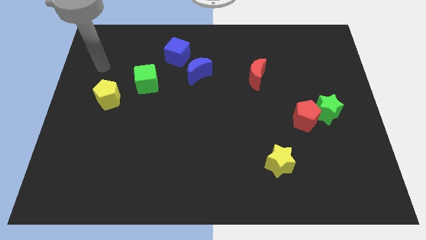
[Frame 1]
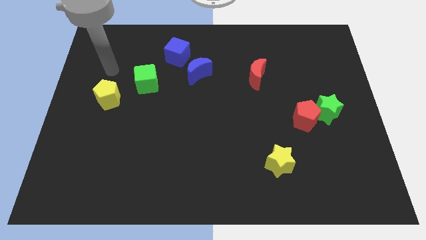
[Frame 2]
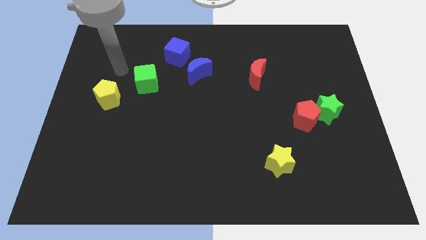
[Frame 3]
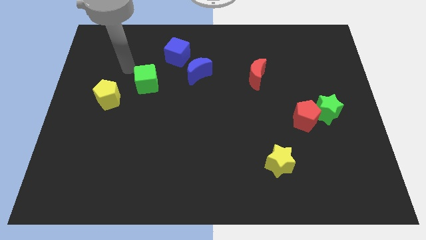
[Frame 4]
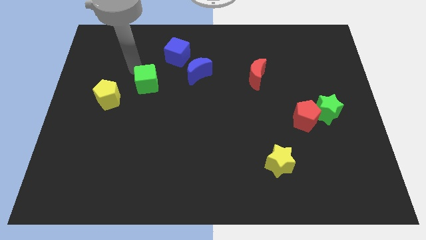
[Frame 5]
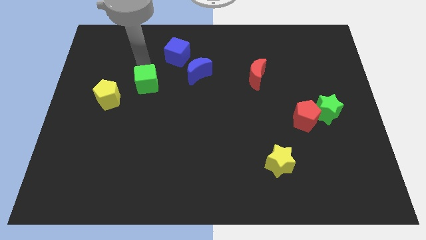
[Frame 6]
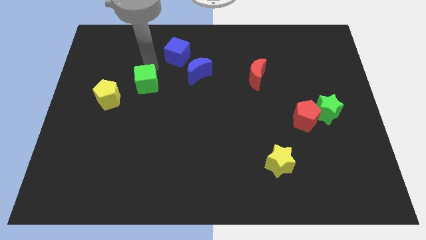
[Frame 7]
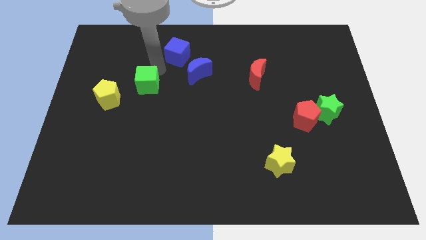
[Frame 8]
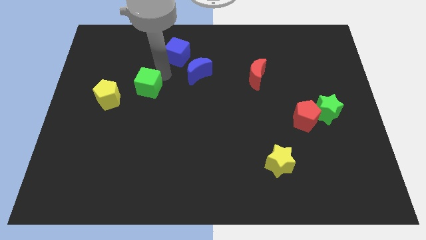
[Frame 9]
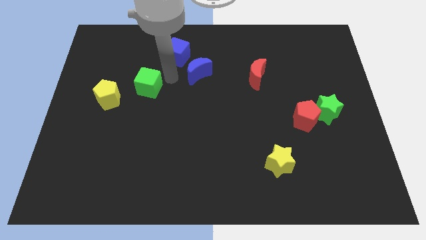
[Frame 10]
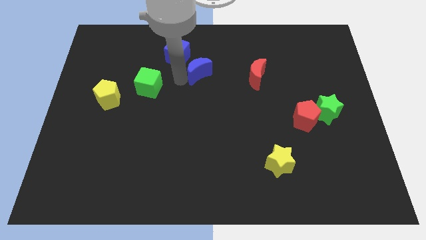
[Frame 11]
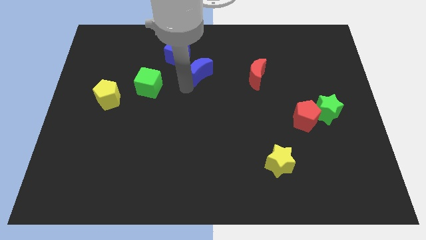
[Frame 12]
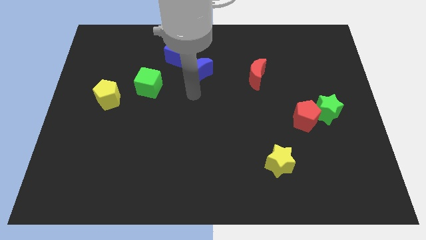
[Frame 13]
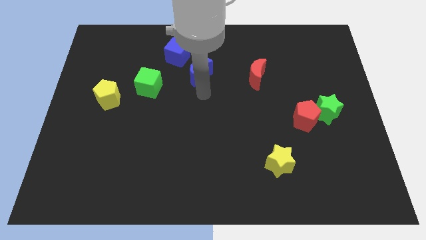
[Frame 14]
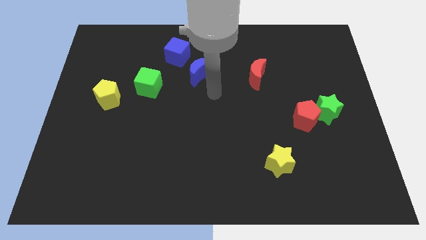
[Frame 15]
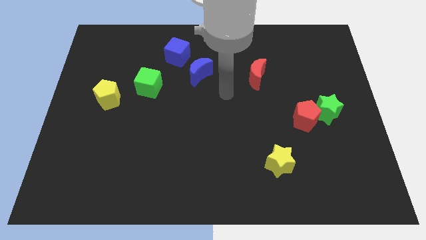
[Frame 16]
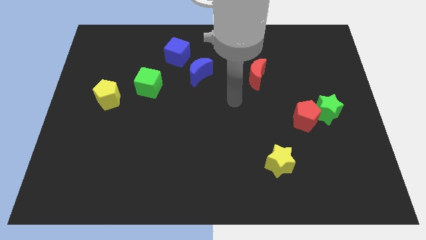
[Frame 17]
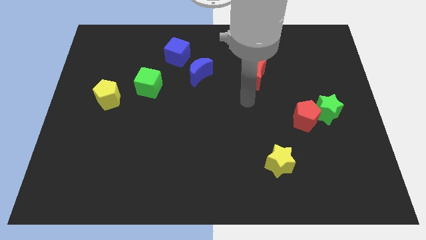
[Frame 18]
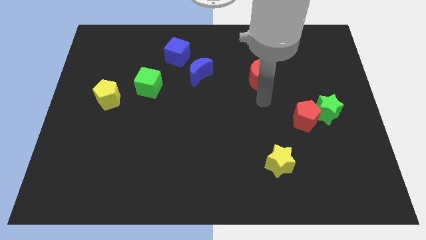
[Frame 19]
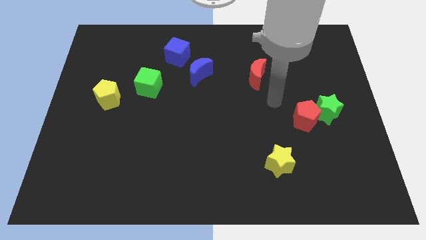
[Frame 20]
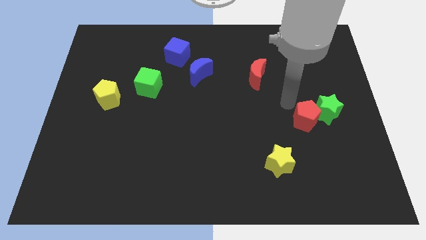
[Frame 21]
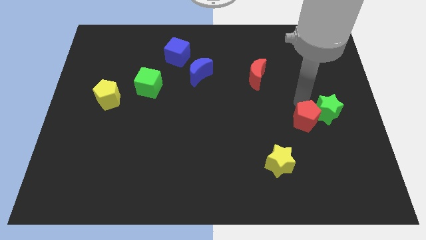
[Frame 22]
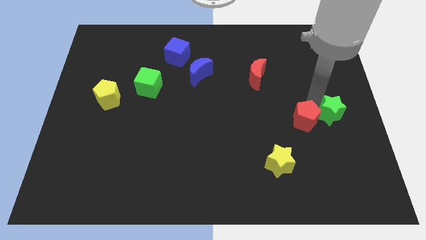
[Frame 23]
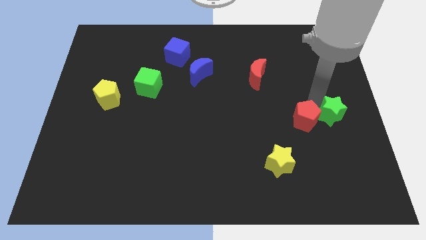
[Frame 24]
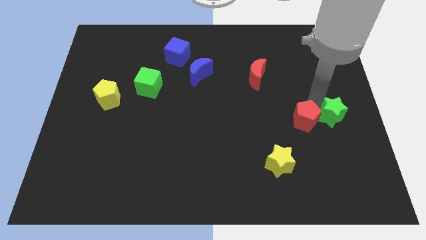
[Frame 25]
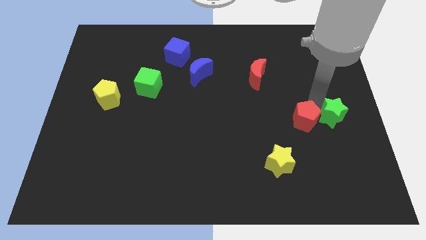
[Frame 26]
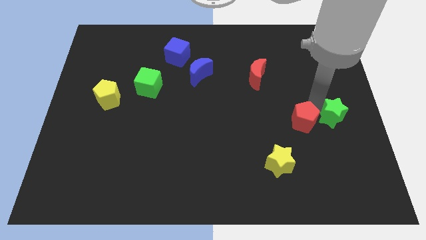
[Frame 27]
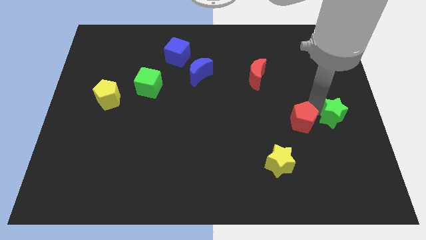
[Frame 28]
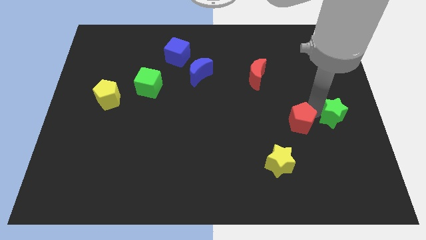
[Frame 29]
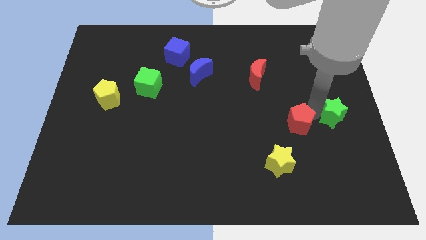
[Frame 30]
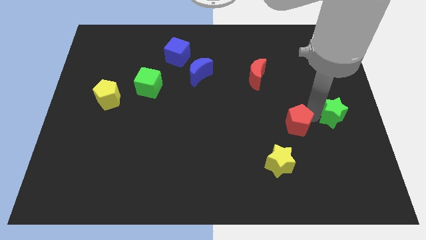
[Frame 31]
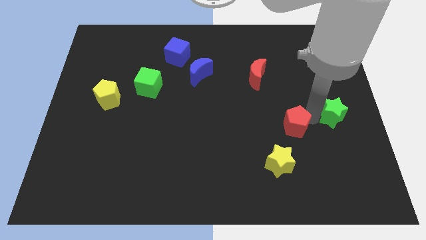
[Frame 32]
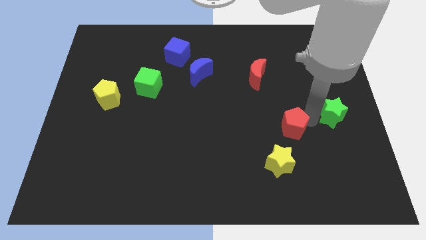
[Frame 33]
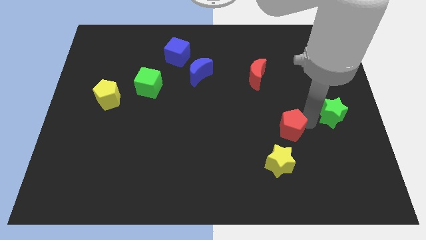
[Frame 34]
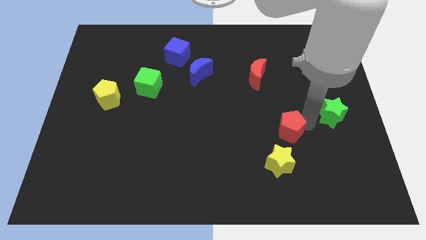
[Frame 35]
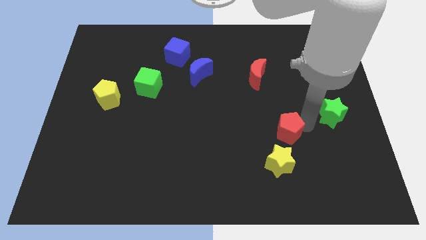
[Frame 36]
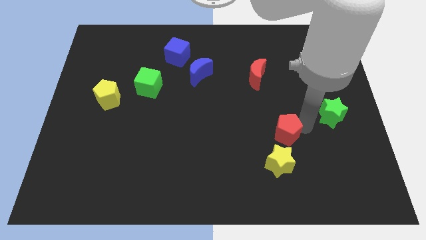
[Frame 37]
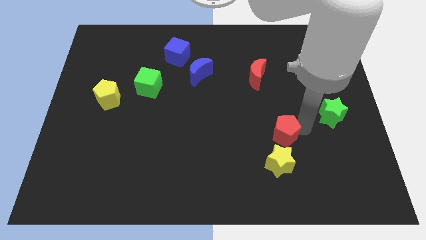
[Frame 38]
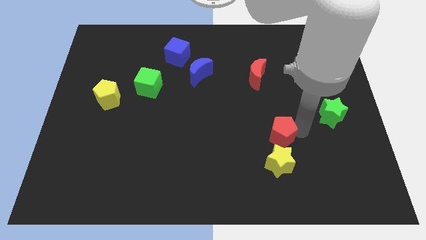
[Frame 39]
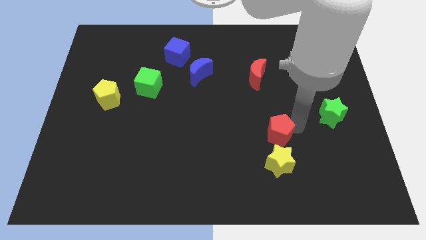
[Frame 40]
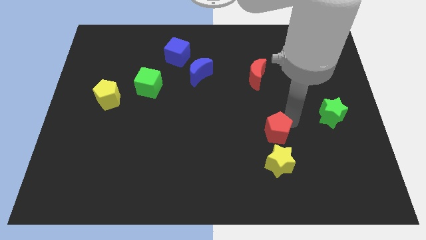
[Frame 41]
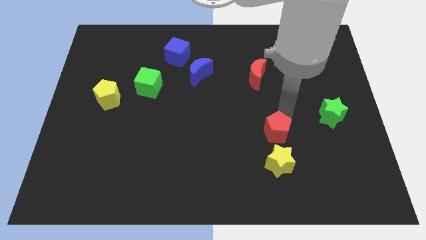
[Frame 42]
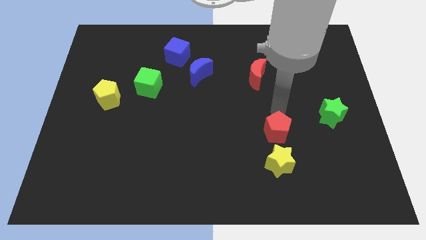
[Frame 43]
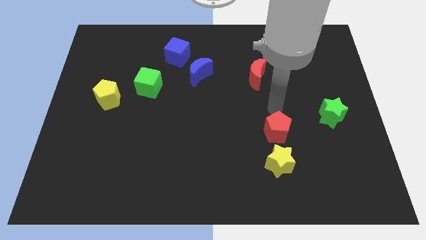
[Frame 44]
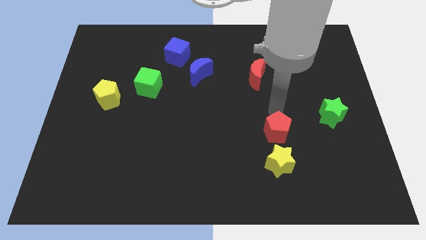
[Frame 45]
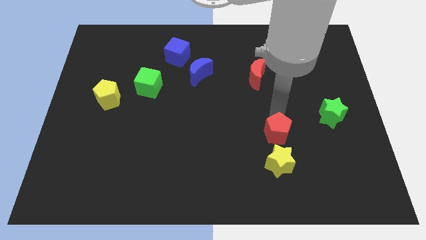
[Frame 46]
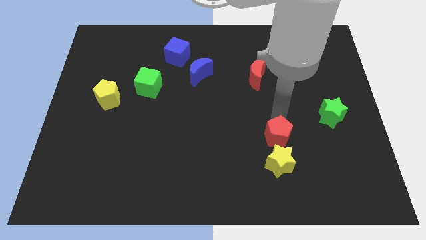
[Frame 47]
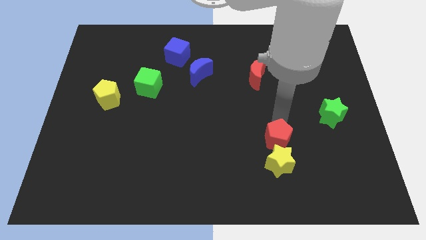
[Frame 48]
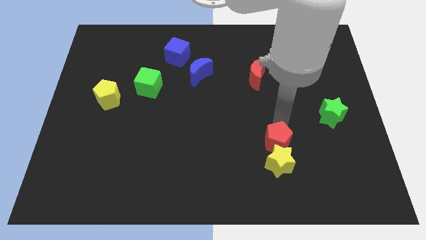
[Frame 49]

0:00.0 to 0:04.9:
put the red pentagon close to the yellow star

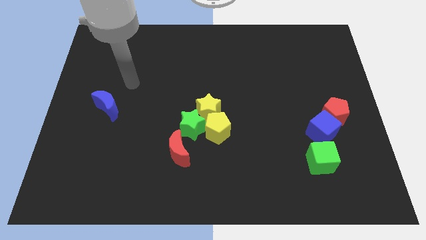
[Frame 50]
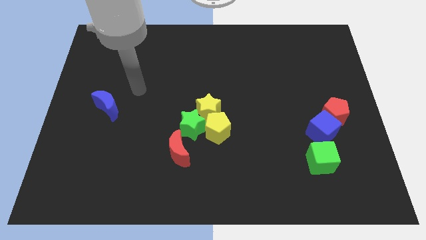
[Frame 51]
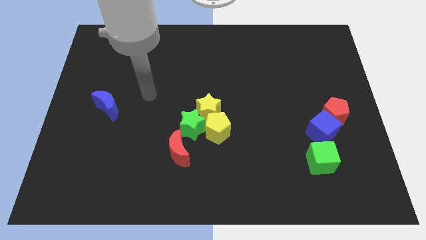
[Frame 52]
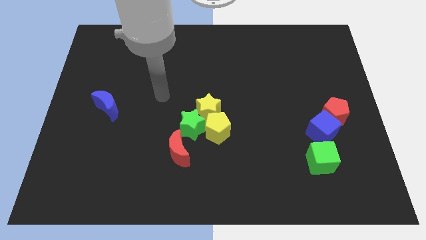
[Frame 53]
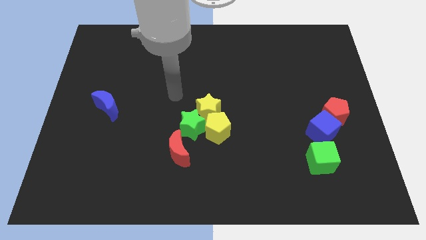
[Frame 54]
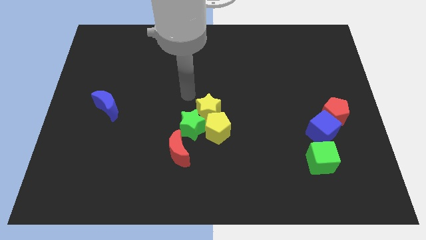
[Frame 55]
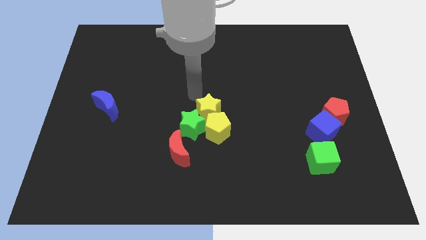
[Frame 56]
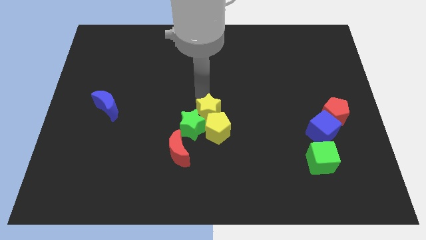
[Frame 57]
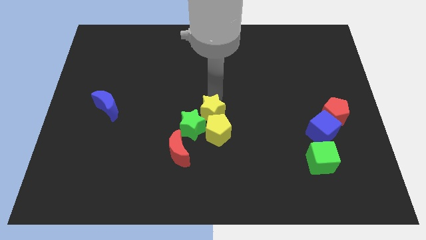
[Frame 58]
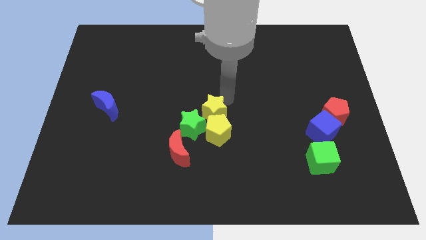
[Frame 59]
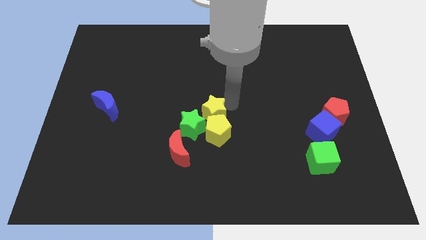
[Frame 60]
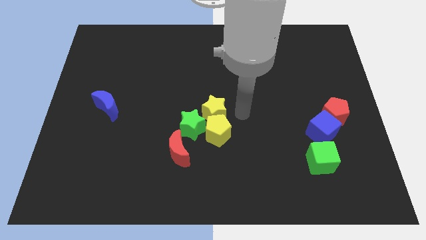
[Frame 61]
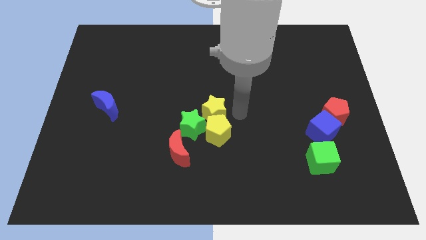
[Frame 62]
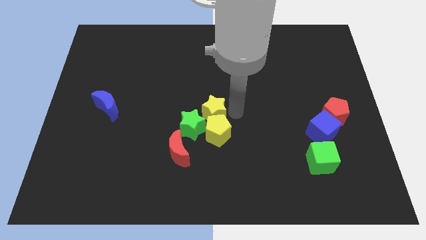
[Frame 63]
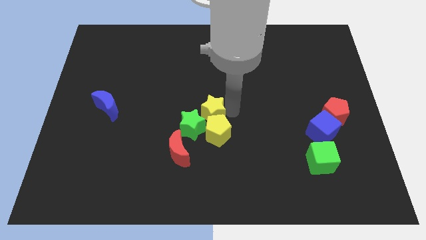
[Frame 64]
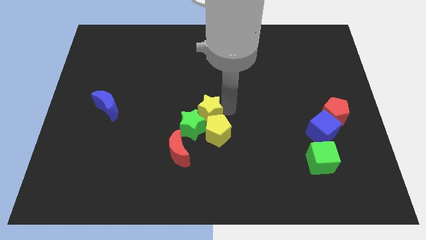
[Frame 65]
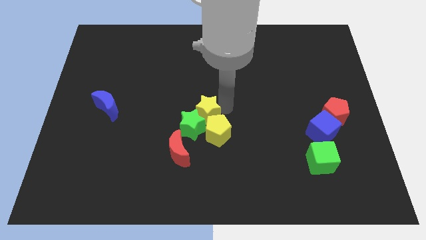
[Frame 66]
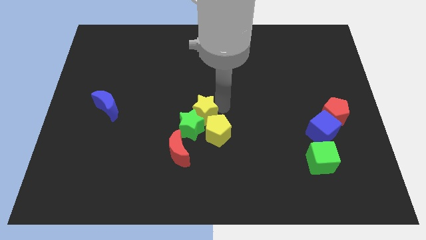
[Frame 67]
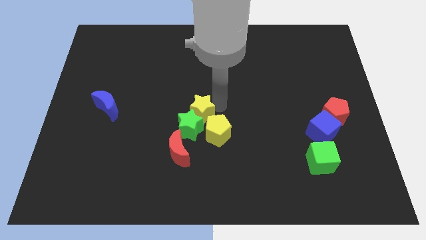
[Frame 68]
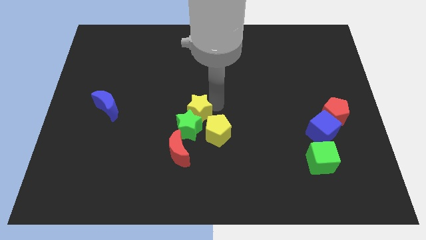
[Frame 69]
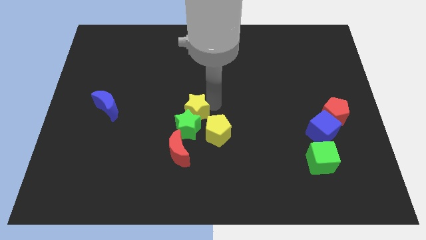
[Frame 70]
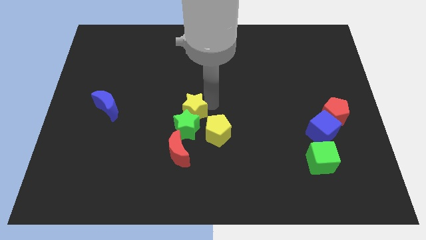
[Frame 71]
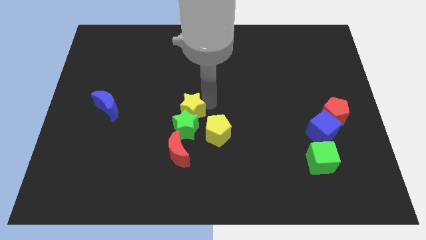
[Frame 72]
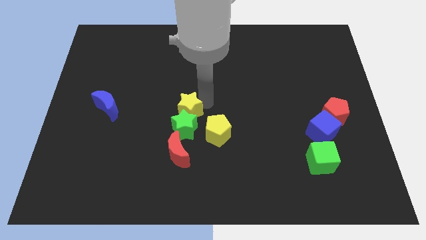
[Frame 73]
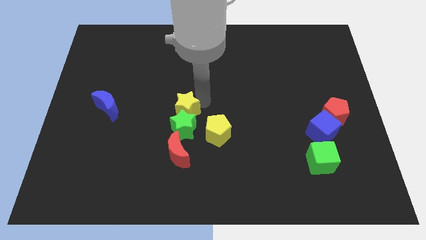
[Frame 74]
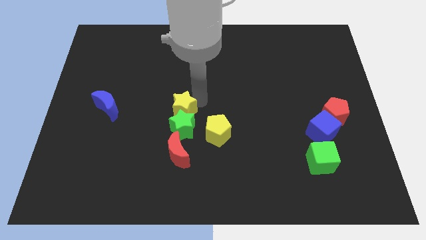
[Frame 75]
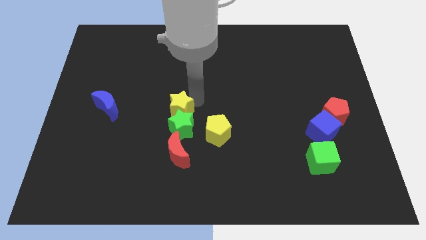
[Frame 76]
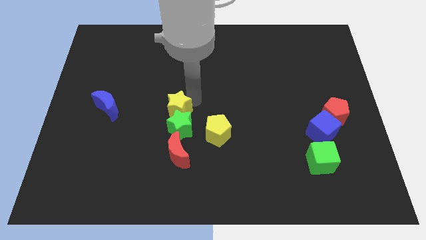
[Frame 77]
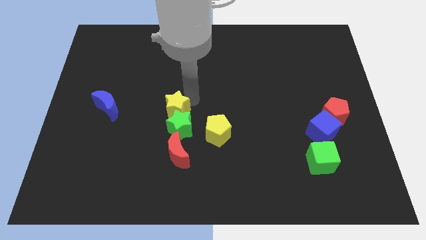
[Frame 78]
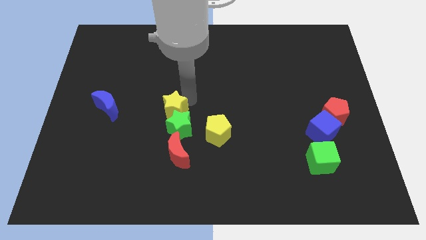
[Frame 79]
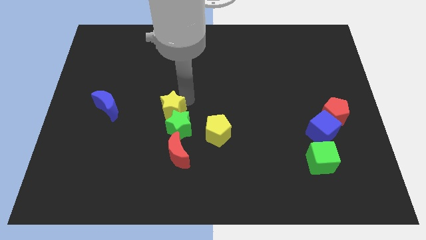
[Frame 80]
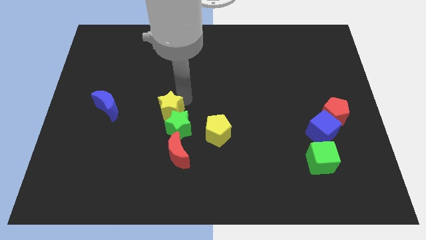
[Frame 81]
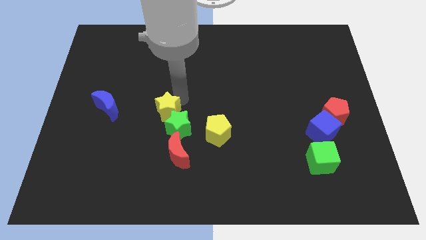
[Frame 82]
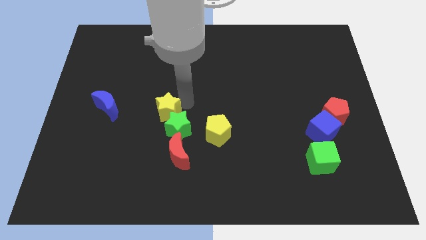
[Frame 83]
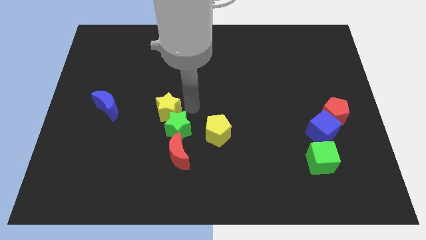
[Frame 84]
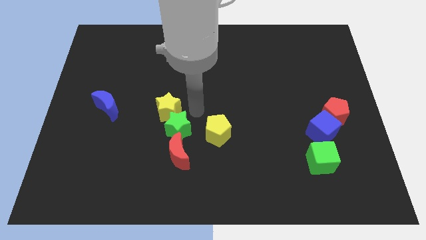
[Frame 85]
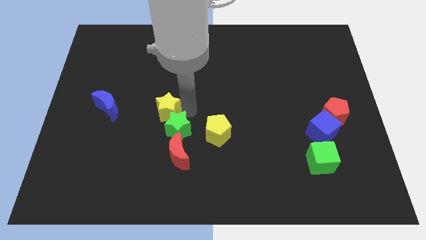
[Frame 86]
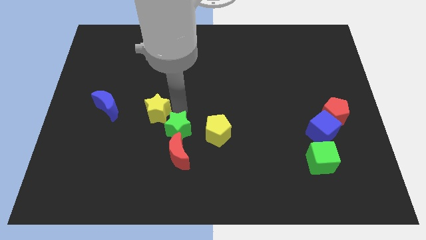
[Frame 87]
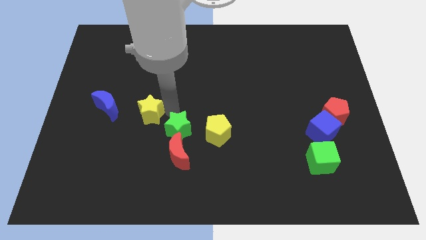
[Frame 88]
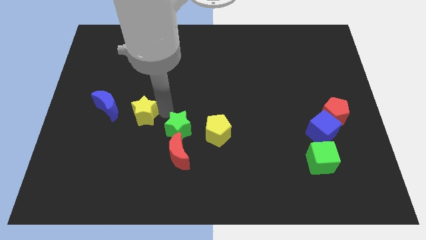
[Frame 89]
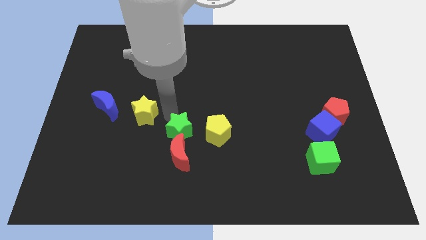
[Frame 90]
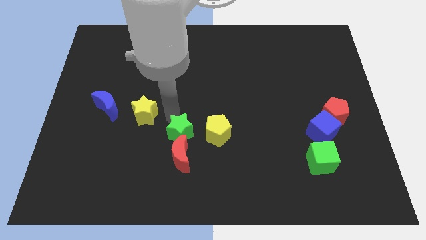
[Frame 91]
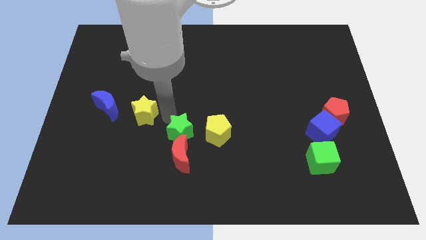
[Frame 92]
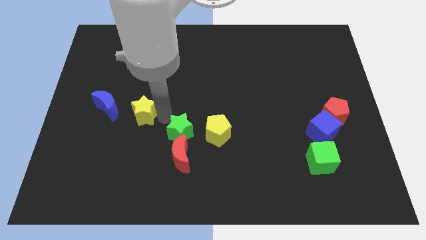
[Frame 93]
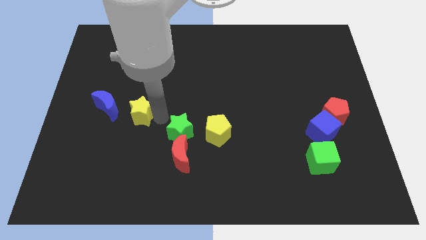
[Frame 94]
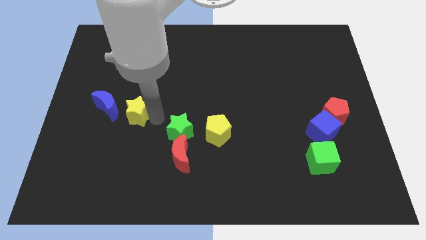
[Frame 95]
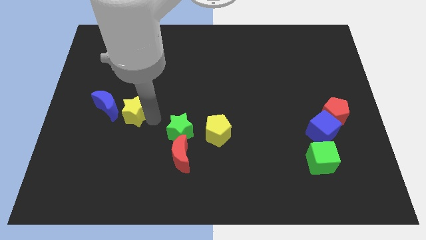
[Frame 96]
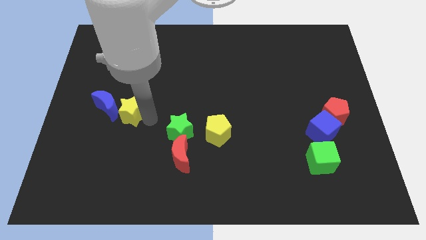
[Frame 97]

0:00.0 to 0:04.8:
put the yellow star to the blue moon
